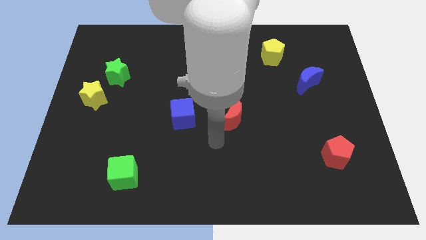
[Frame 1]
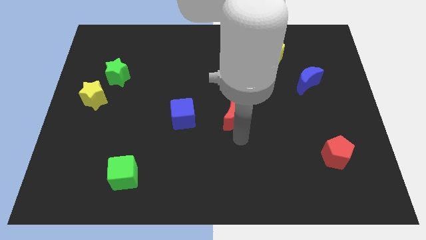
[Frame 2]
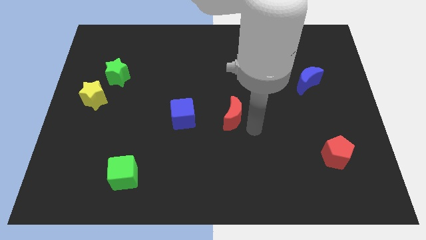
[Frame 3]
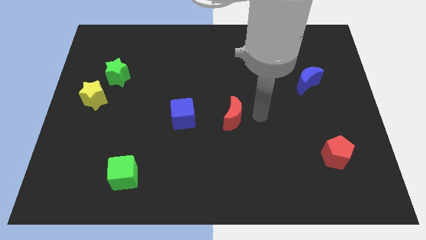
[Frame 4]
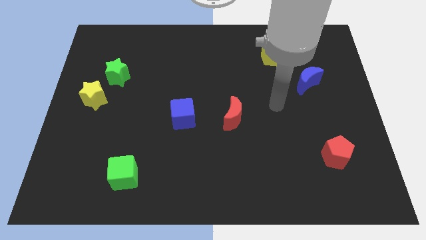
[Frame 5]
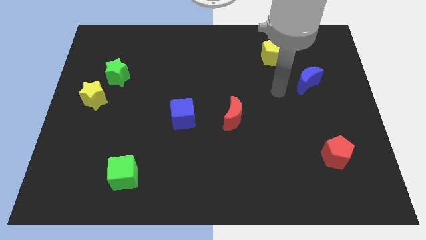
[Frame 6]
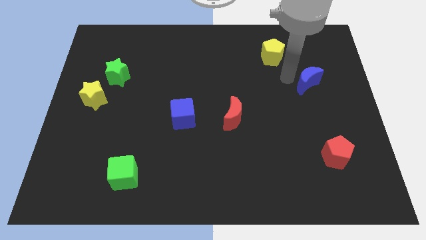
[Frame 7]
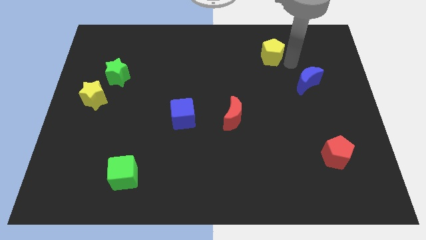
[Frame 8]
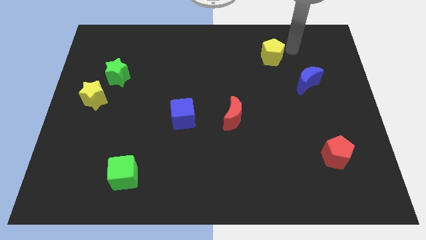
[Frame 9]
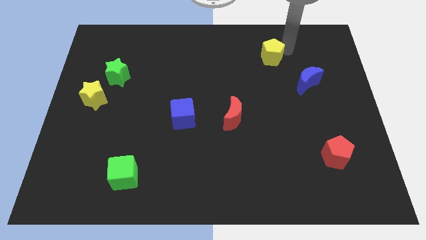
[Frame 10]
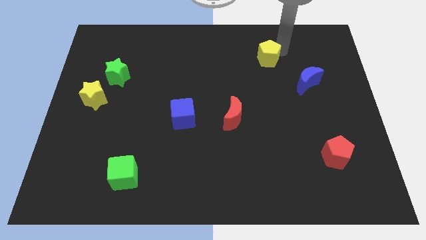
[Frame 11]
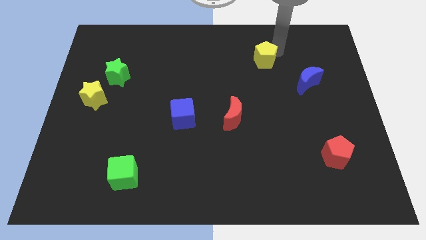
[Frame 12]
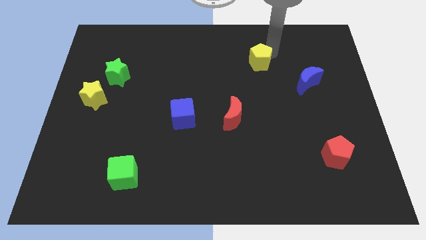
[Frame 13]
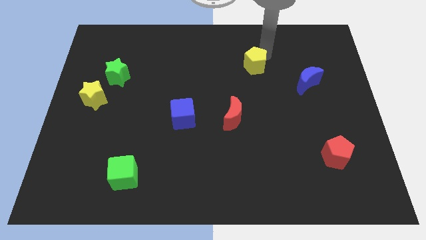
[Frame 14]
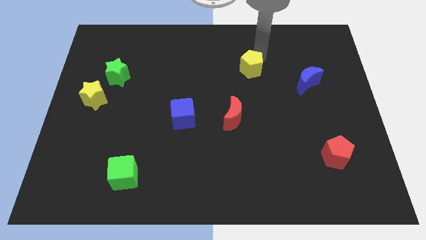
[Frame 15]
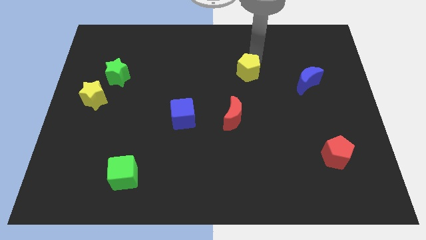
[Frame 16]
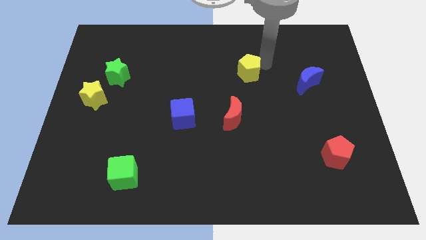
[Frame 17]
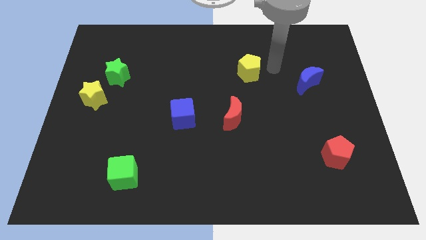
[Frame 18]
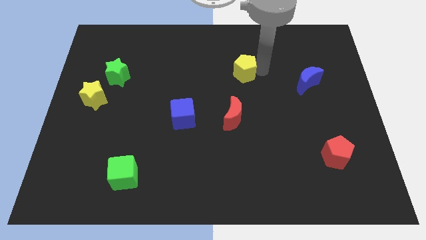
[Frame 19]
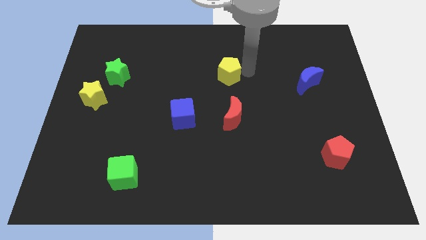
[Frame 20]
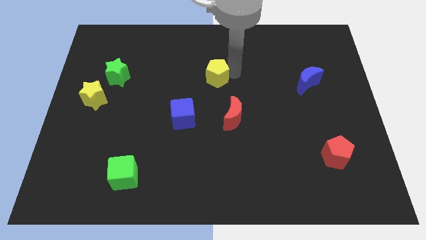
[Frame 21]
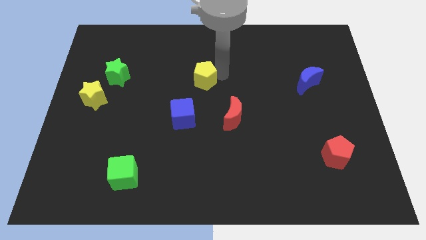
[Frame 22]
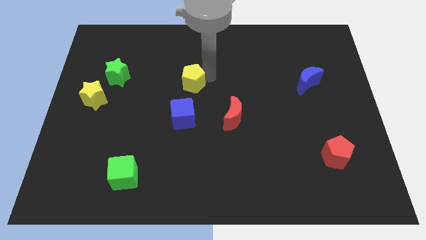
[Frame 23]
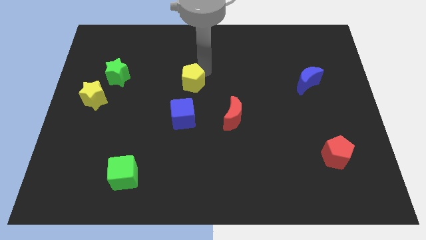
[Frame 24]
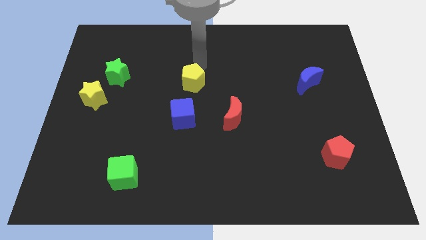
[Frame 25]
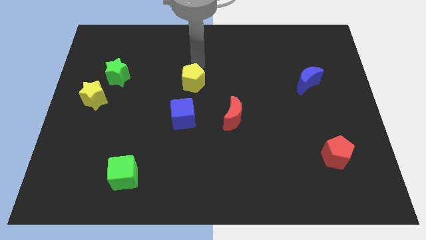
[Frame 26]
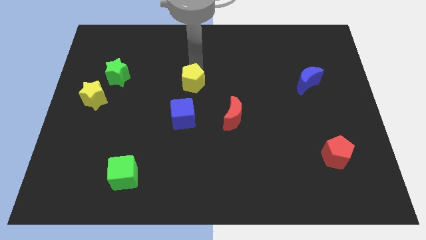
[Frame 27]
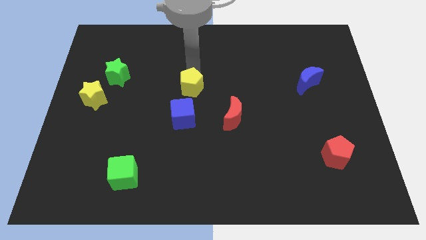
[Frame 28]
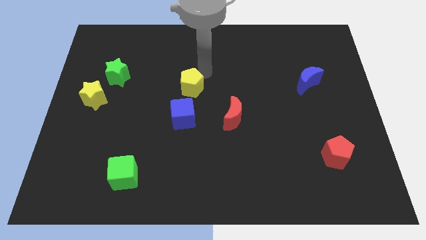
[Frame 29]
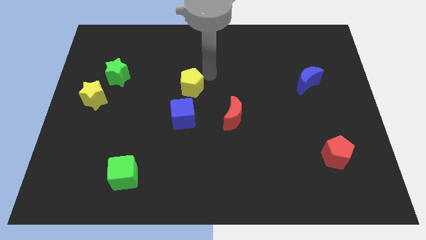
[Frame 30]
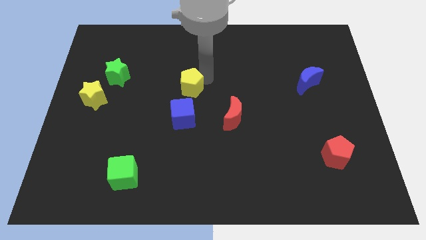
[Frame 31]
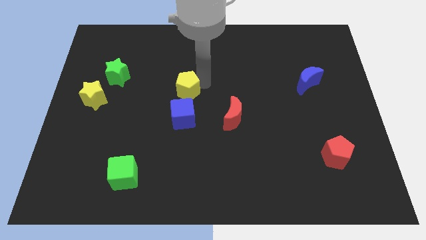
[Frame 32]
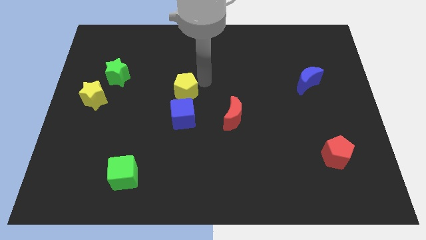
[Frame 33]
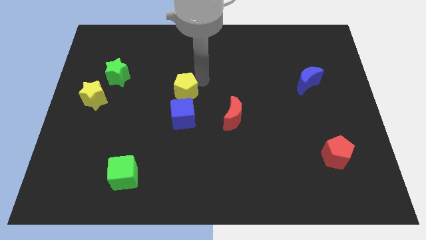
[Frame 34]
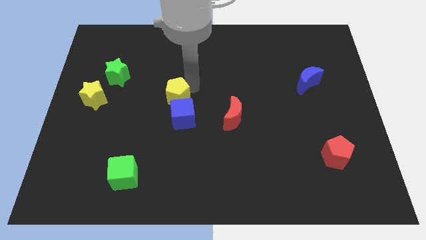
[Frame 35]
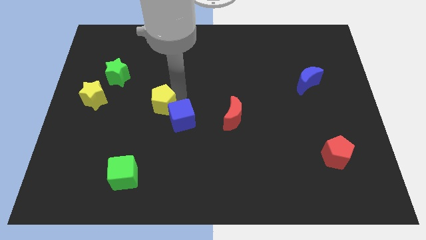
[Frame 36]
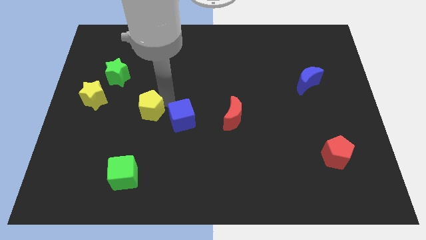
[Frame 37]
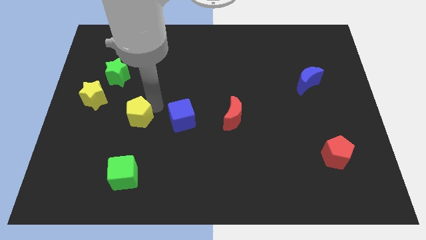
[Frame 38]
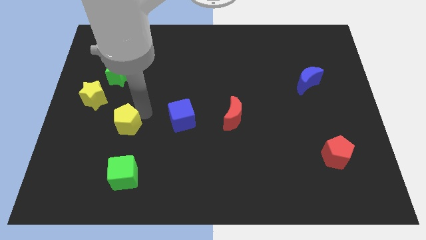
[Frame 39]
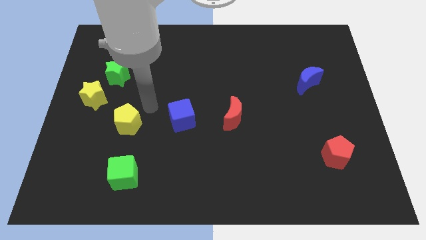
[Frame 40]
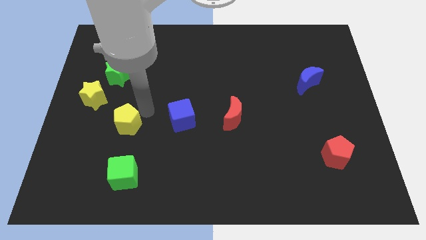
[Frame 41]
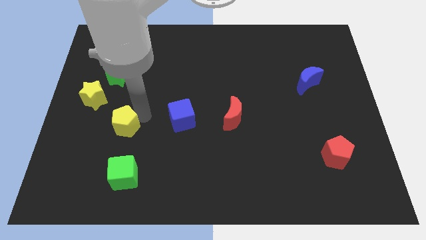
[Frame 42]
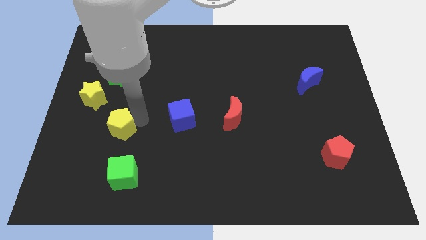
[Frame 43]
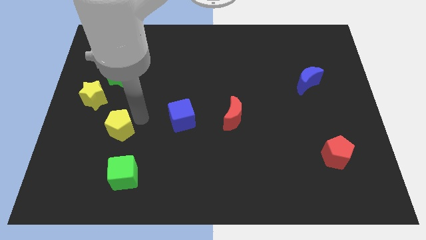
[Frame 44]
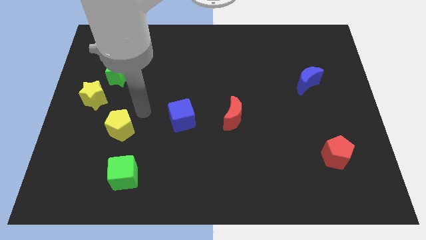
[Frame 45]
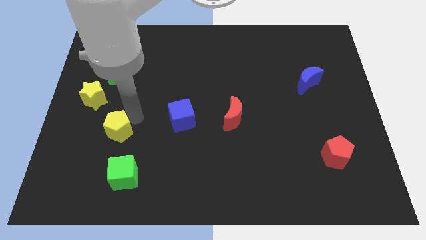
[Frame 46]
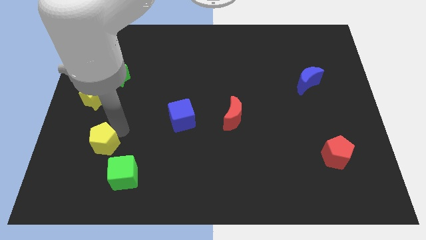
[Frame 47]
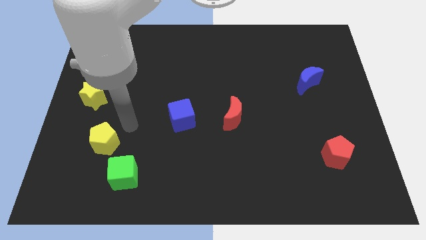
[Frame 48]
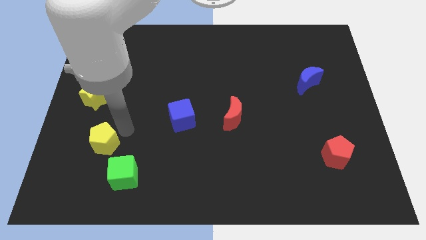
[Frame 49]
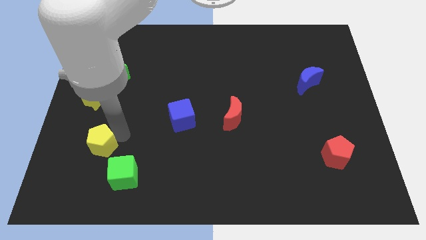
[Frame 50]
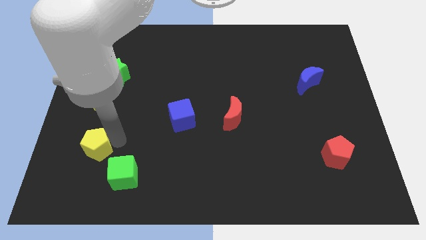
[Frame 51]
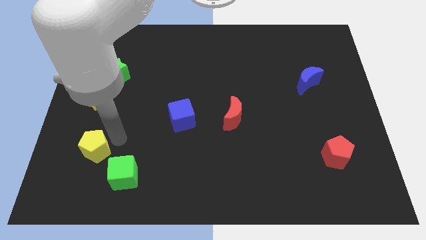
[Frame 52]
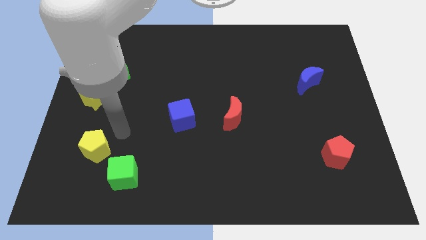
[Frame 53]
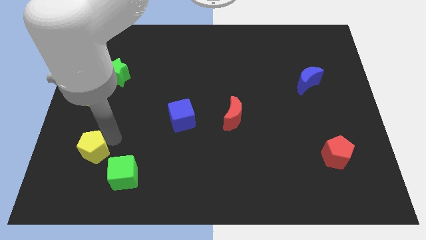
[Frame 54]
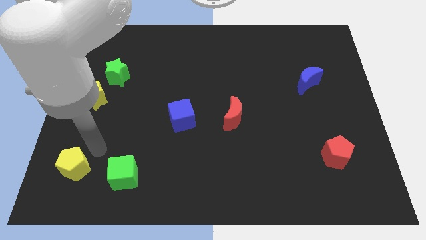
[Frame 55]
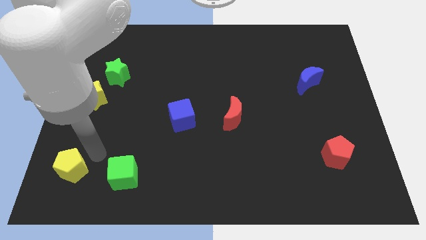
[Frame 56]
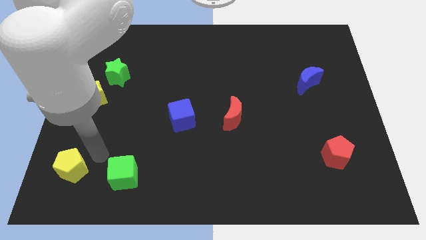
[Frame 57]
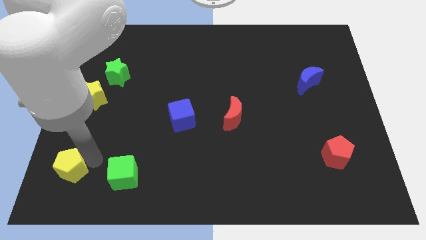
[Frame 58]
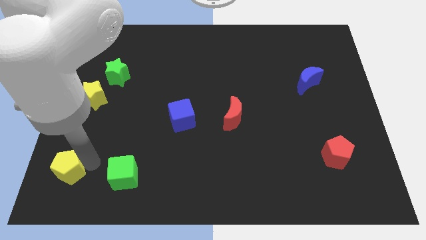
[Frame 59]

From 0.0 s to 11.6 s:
slide the yellow pentagon to the bottom left corner

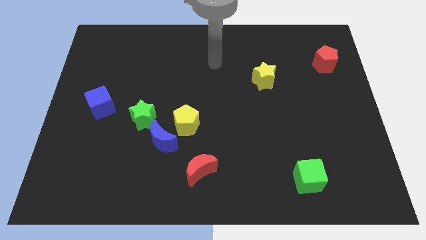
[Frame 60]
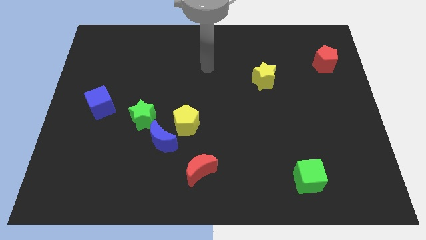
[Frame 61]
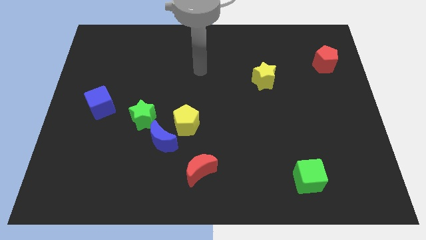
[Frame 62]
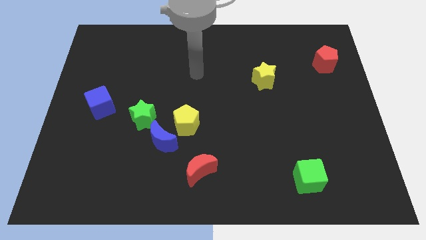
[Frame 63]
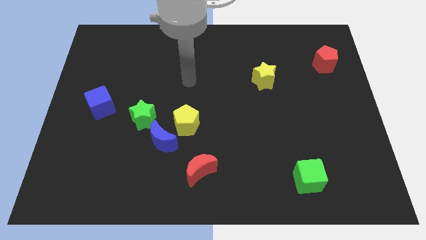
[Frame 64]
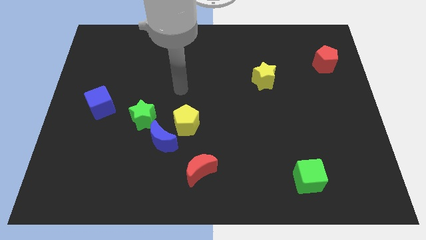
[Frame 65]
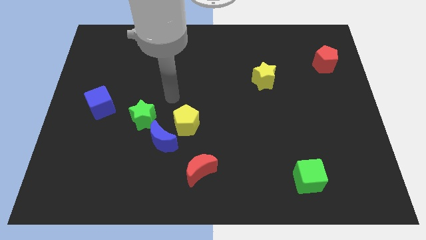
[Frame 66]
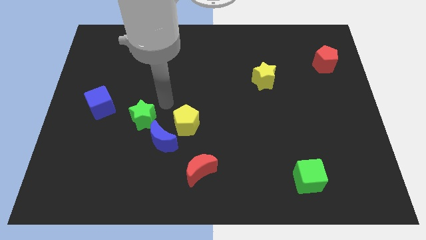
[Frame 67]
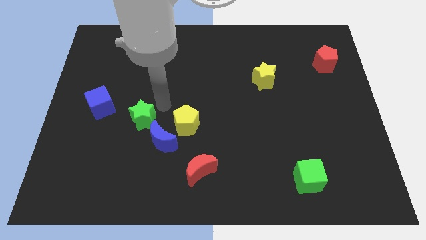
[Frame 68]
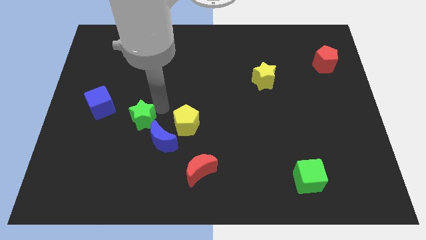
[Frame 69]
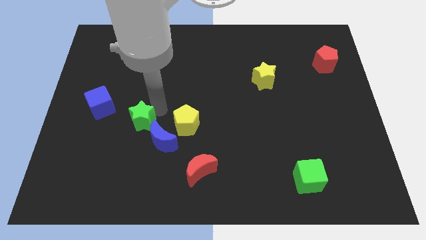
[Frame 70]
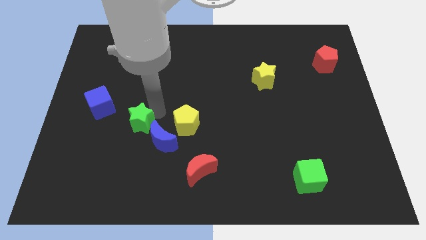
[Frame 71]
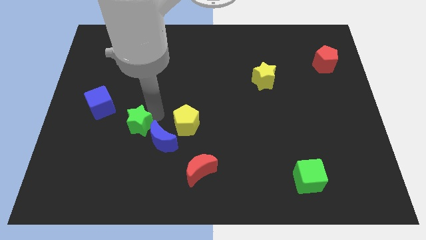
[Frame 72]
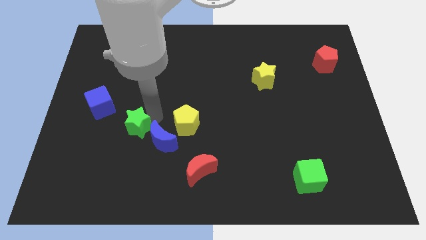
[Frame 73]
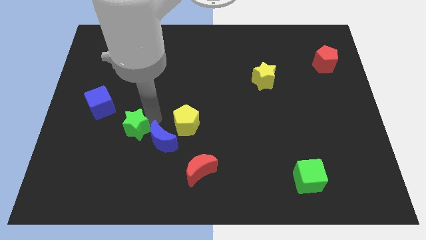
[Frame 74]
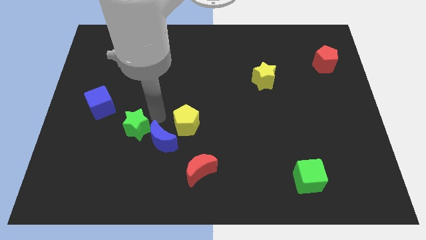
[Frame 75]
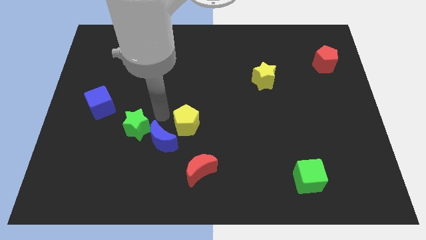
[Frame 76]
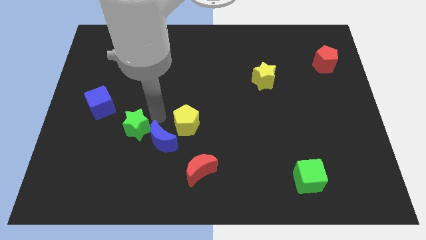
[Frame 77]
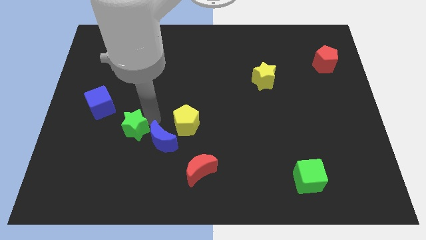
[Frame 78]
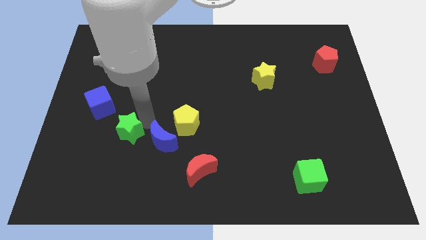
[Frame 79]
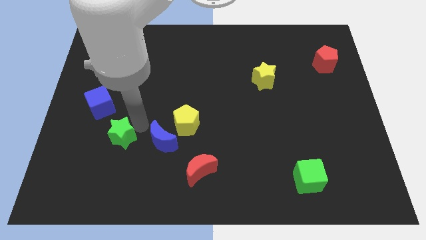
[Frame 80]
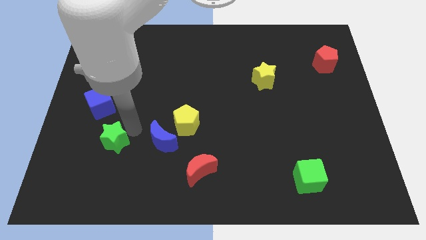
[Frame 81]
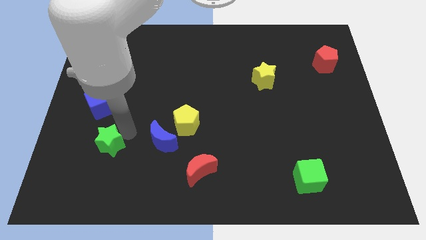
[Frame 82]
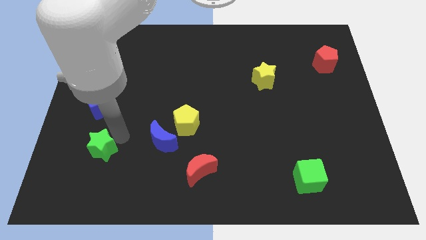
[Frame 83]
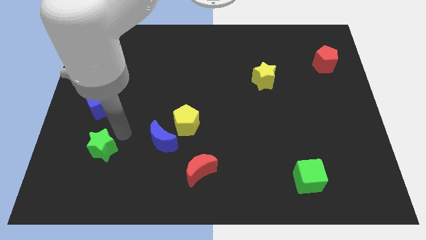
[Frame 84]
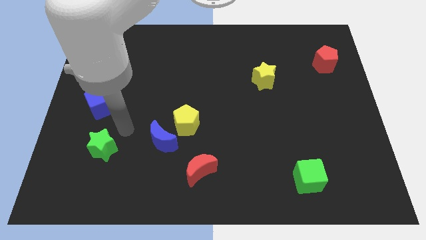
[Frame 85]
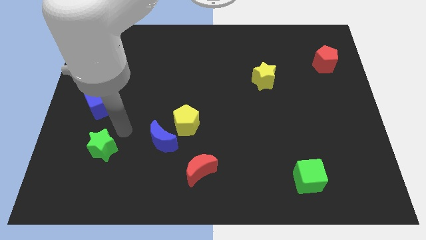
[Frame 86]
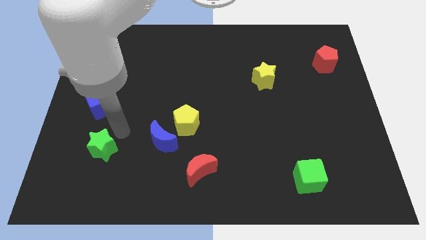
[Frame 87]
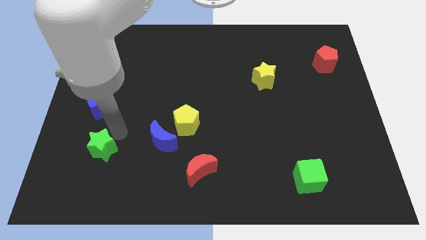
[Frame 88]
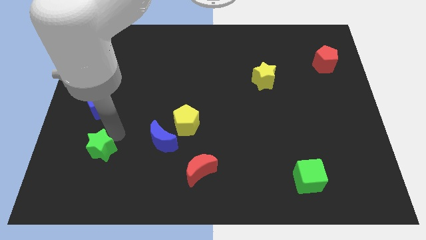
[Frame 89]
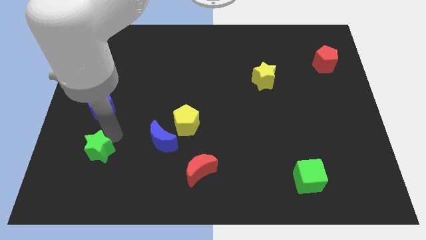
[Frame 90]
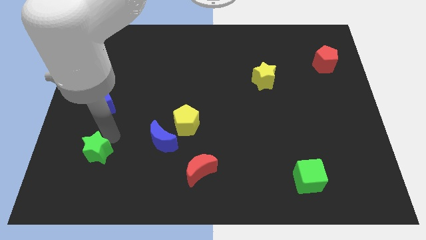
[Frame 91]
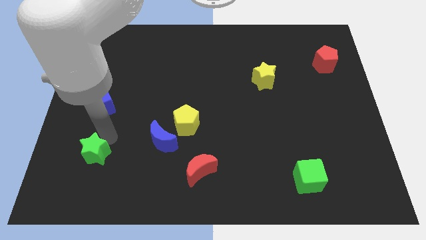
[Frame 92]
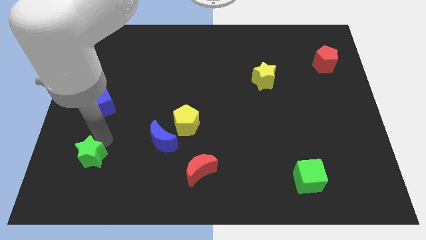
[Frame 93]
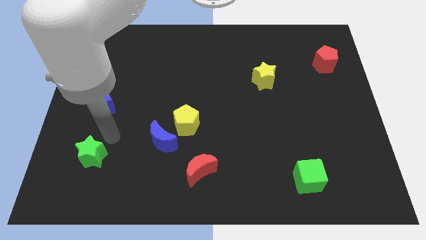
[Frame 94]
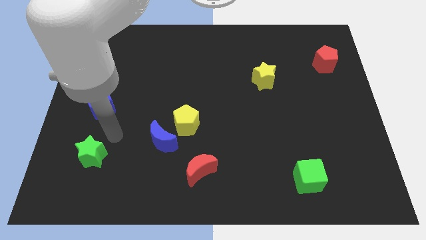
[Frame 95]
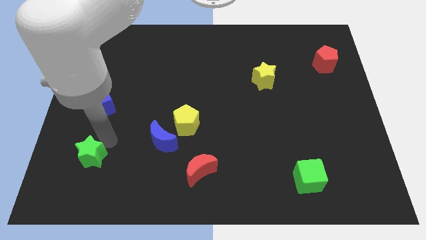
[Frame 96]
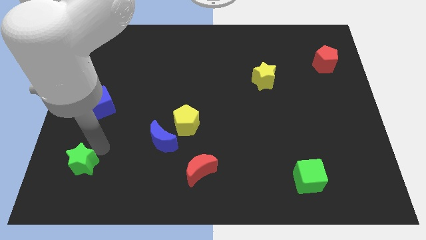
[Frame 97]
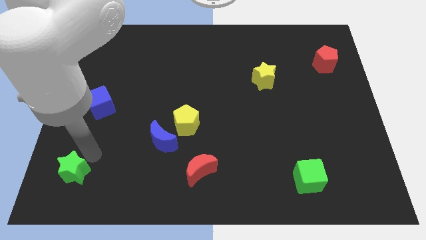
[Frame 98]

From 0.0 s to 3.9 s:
move the green star to the bottom left of the board
